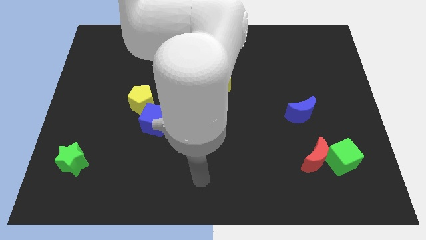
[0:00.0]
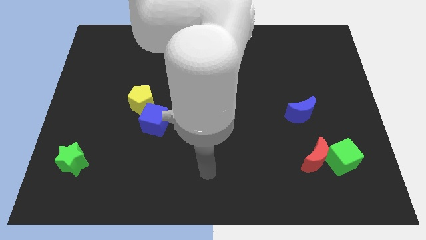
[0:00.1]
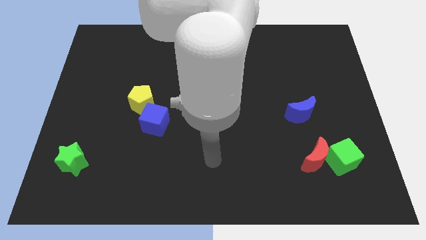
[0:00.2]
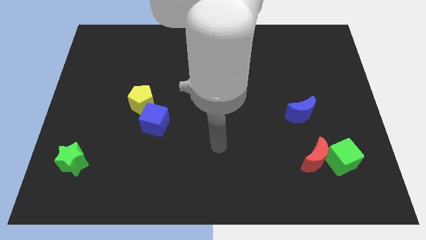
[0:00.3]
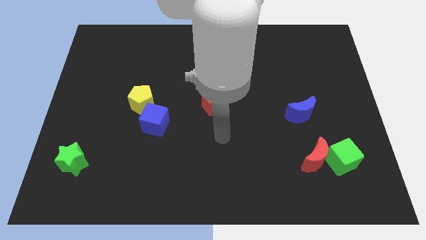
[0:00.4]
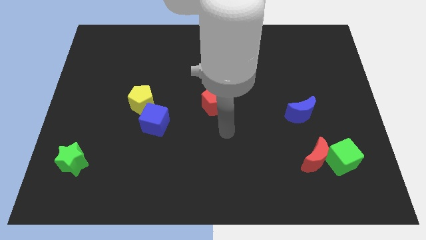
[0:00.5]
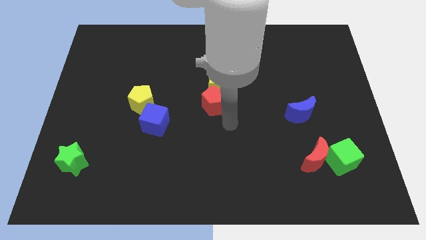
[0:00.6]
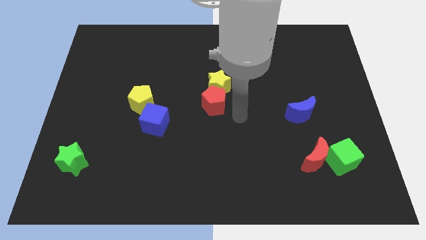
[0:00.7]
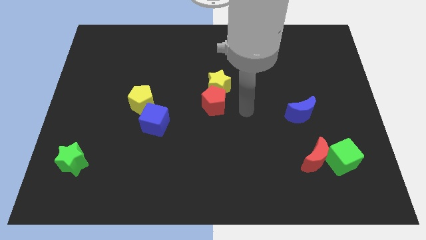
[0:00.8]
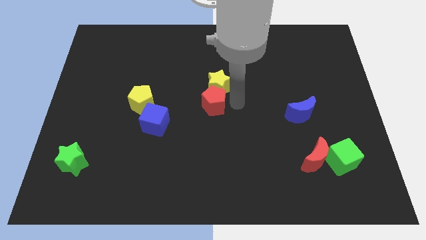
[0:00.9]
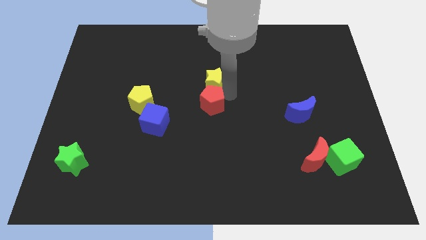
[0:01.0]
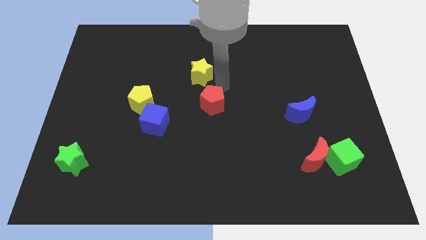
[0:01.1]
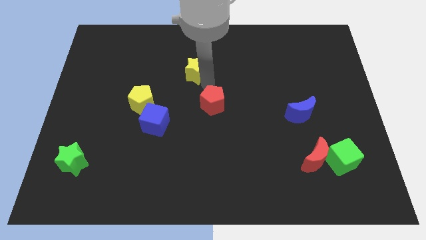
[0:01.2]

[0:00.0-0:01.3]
move the red pentagon away from the yellow star

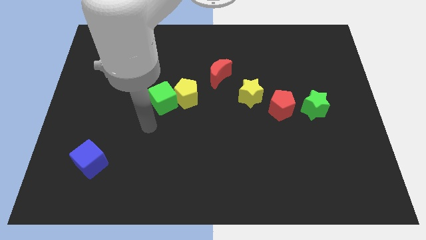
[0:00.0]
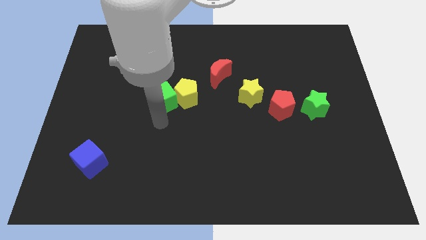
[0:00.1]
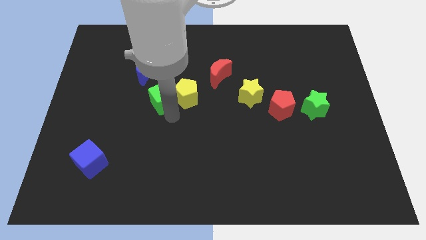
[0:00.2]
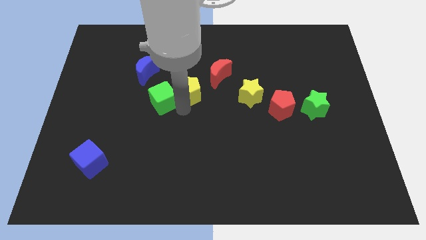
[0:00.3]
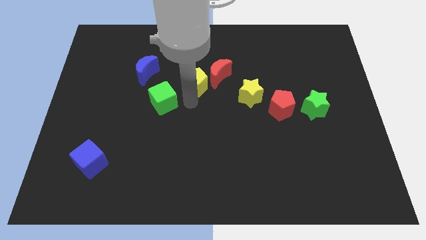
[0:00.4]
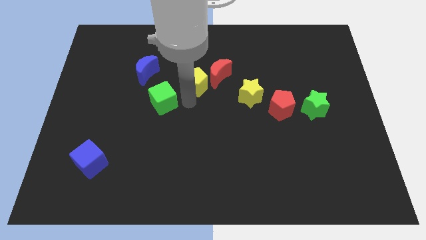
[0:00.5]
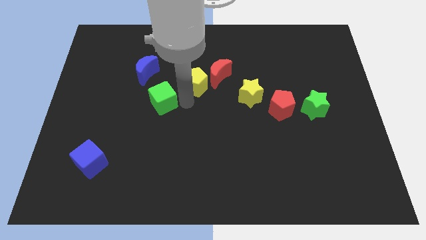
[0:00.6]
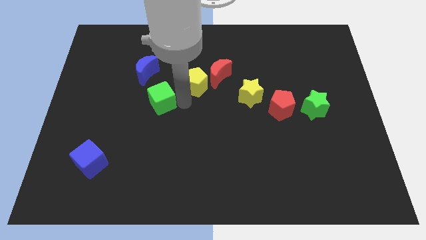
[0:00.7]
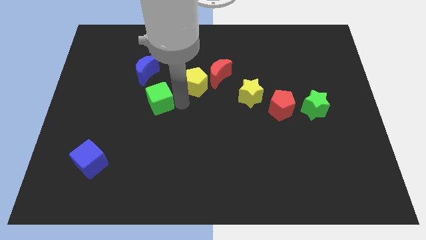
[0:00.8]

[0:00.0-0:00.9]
move the green cube away from the yellow pentagon

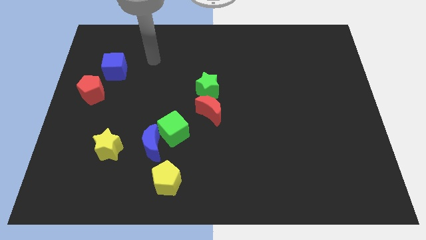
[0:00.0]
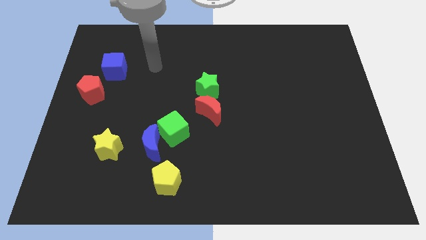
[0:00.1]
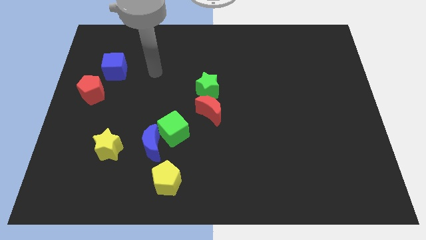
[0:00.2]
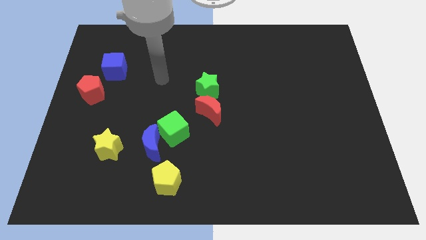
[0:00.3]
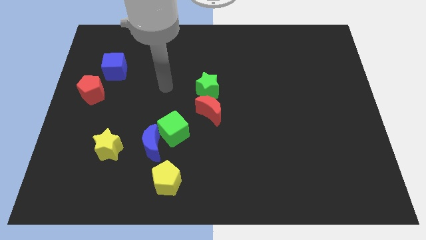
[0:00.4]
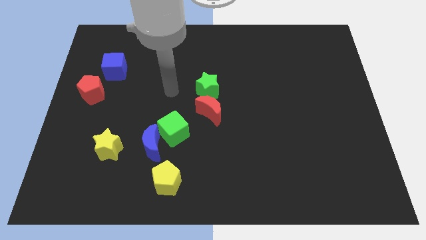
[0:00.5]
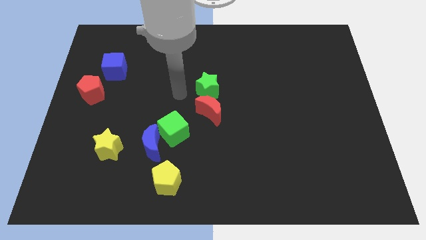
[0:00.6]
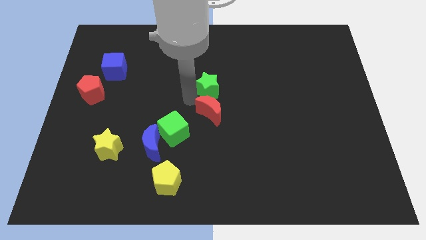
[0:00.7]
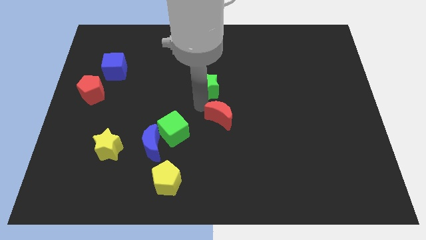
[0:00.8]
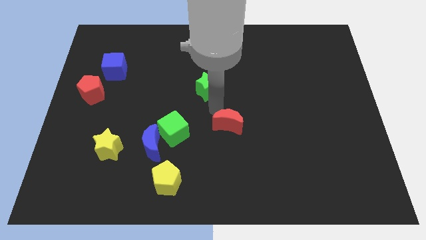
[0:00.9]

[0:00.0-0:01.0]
pull the green star apart from the red moon

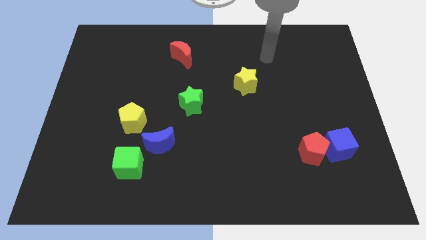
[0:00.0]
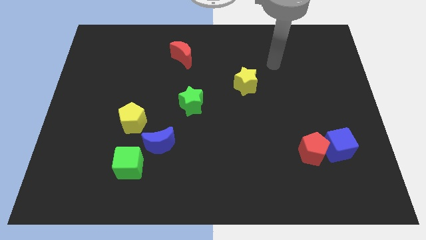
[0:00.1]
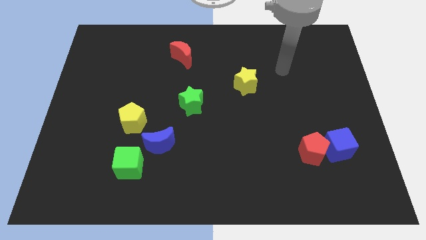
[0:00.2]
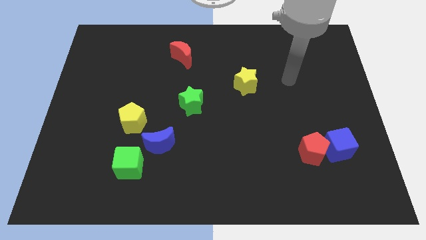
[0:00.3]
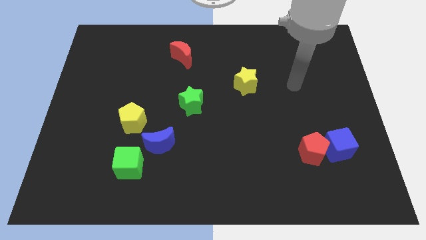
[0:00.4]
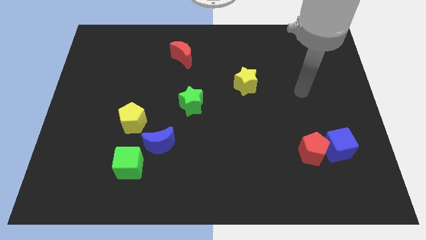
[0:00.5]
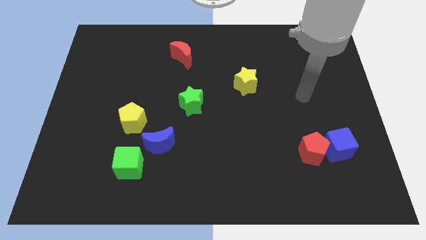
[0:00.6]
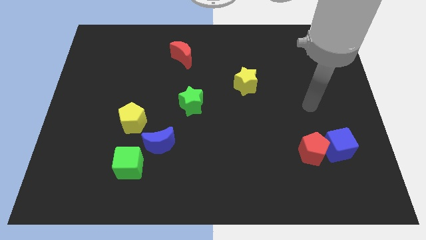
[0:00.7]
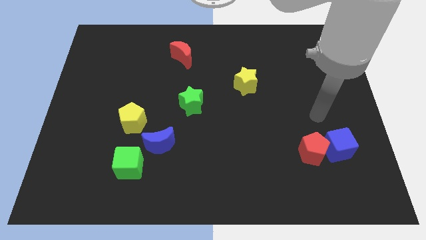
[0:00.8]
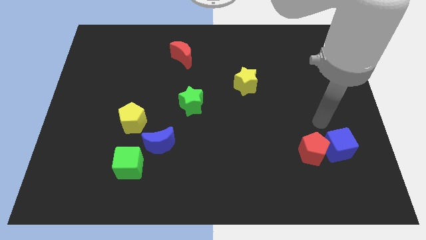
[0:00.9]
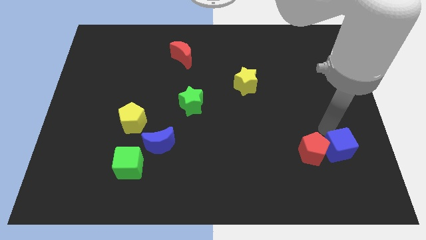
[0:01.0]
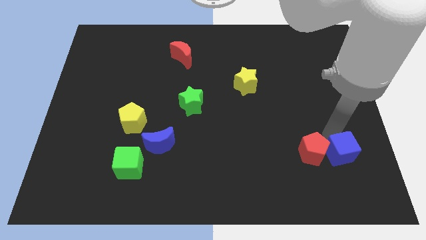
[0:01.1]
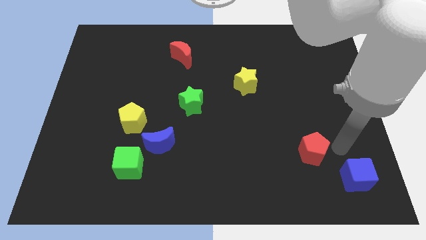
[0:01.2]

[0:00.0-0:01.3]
pull the red pentagon apart from the blue cube

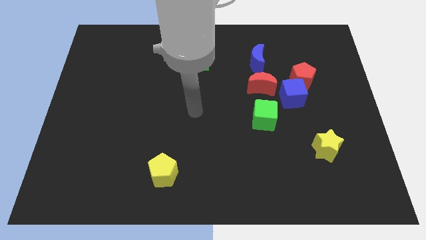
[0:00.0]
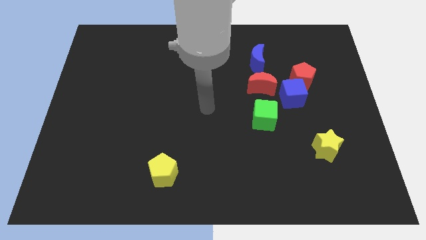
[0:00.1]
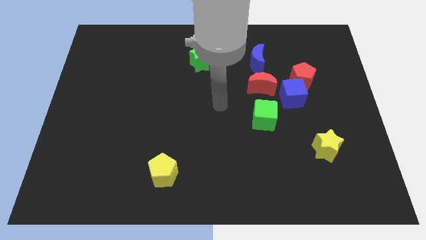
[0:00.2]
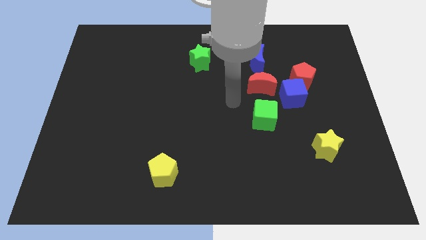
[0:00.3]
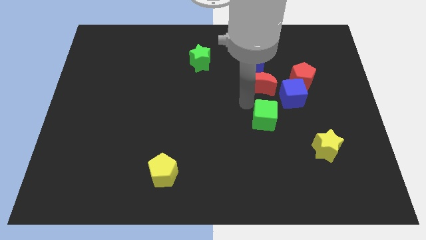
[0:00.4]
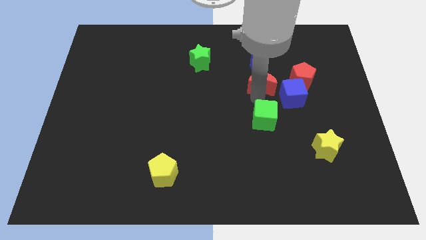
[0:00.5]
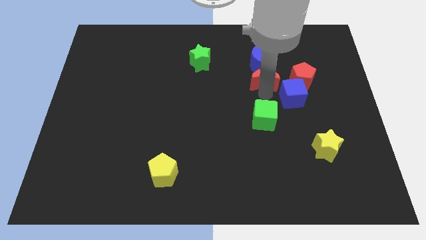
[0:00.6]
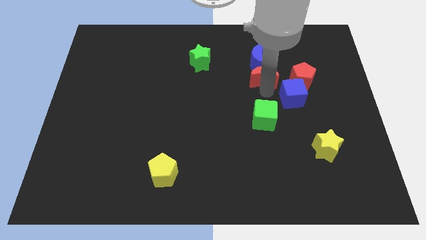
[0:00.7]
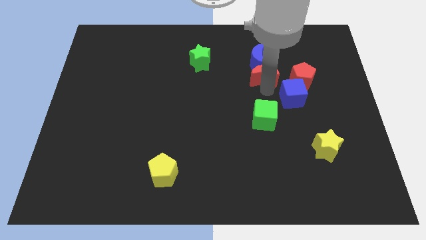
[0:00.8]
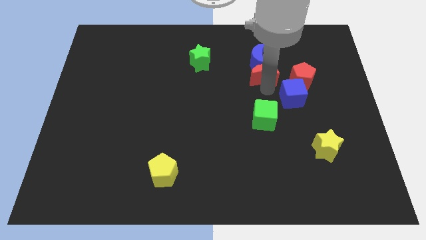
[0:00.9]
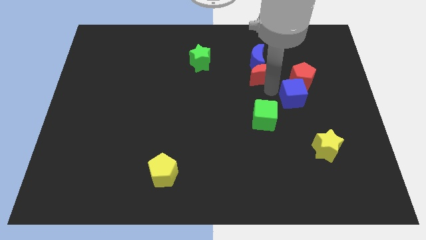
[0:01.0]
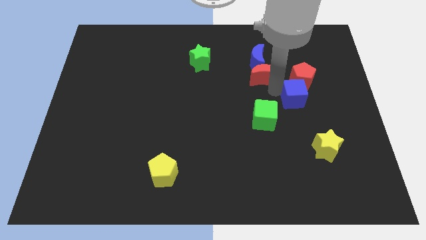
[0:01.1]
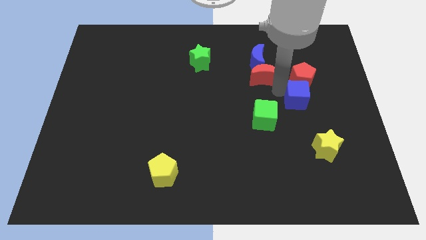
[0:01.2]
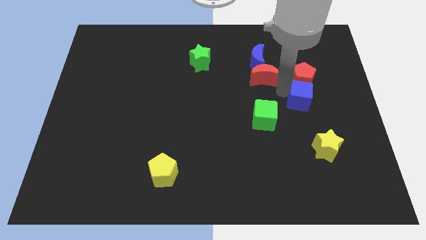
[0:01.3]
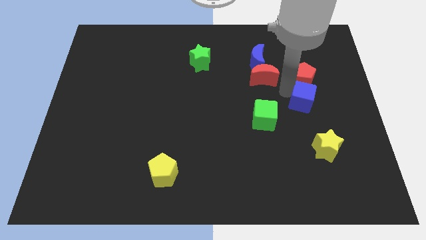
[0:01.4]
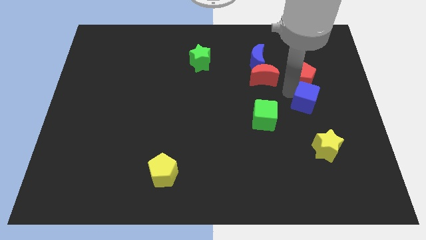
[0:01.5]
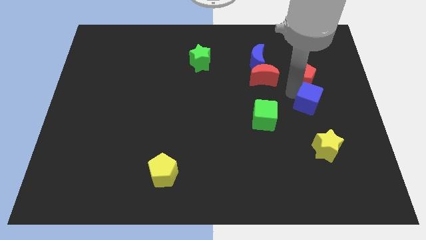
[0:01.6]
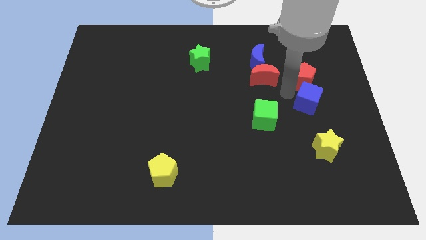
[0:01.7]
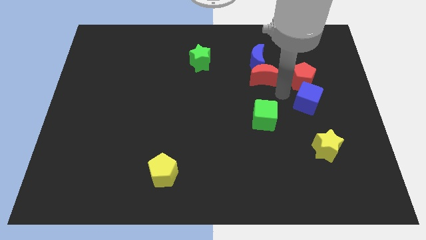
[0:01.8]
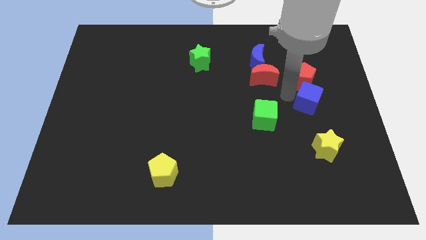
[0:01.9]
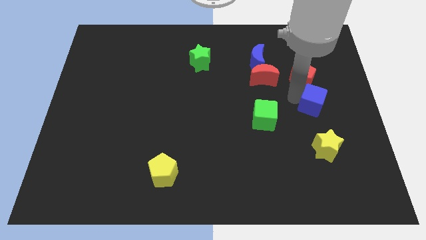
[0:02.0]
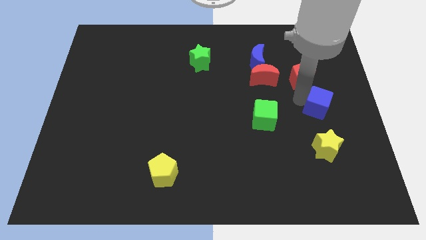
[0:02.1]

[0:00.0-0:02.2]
separate the blue cube from the red pentagon, red moon, and green cube

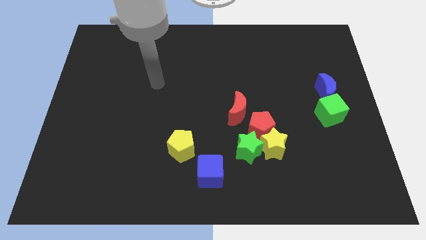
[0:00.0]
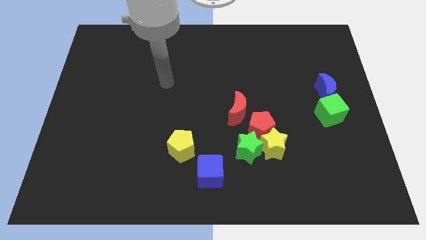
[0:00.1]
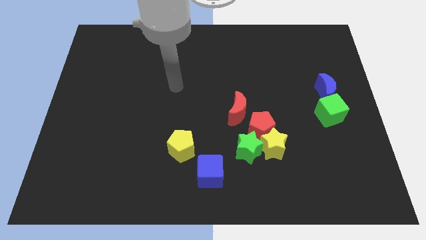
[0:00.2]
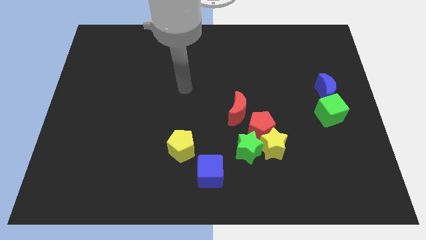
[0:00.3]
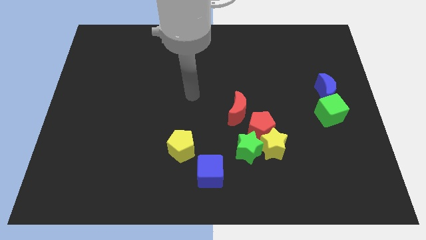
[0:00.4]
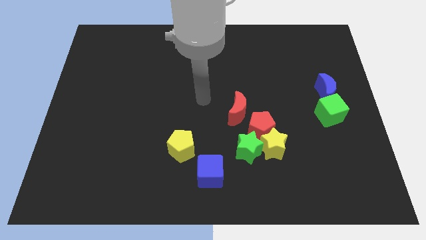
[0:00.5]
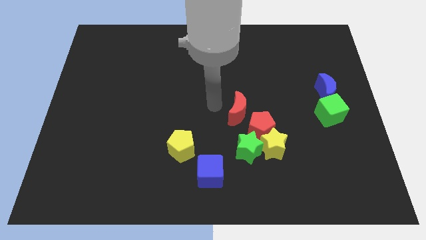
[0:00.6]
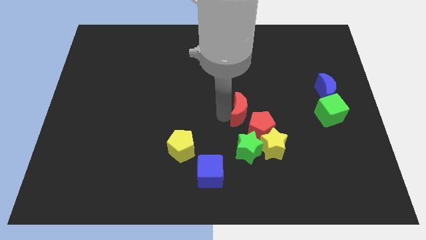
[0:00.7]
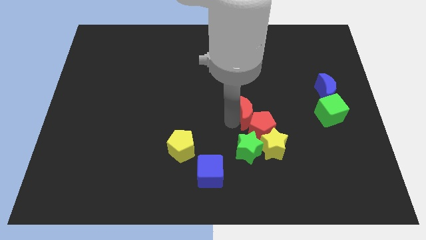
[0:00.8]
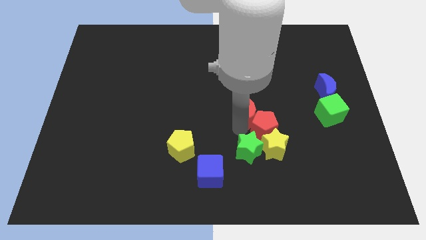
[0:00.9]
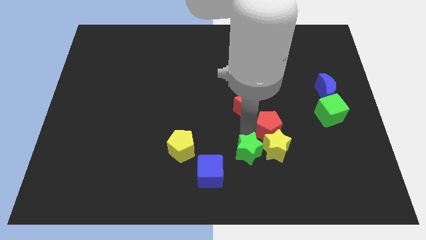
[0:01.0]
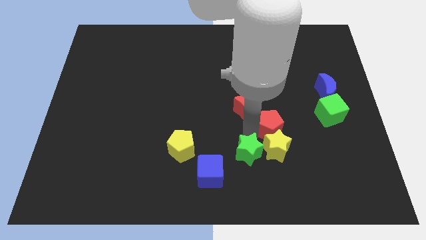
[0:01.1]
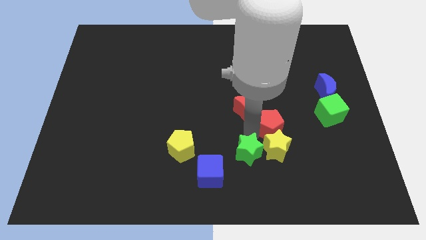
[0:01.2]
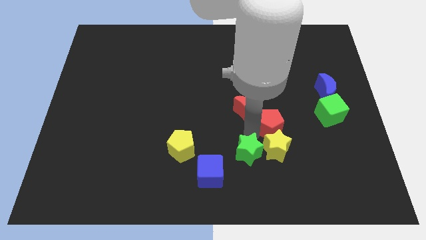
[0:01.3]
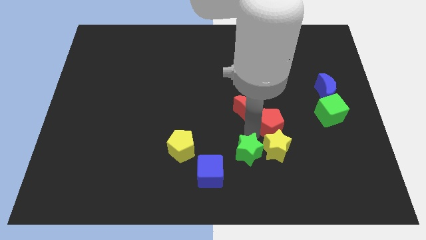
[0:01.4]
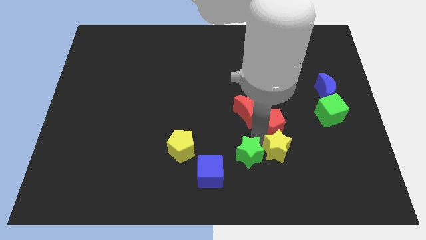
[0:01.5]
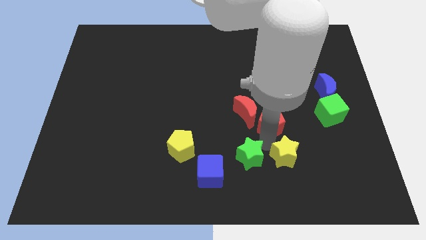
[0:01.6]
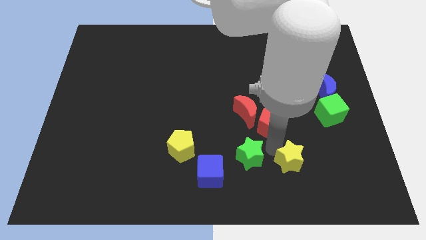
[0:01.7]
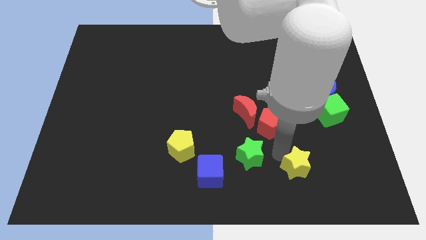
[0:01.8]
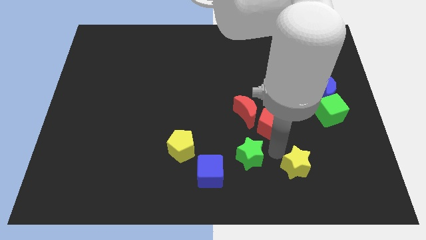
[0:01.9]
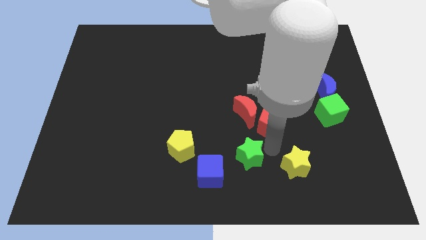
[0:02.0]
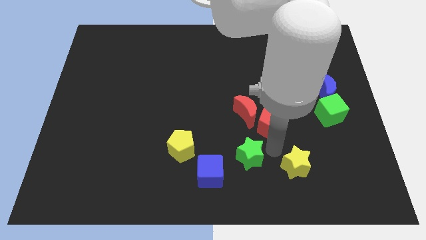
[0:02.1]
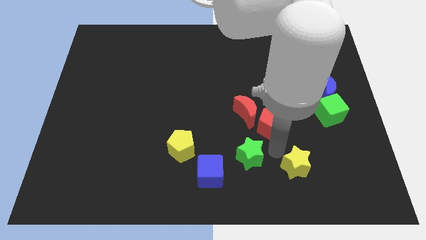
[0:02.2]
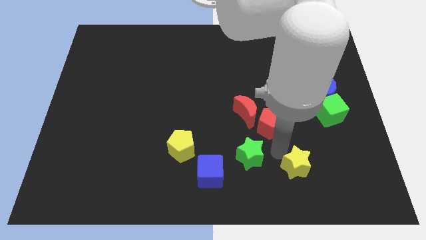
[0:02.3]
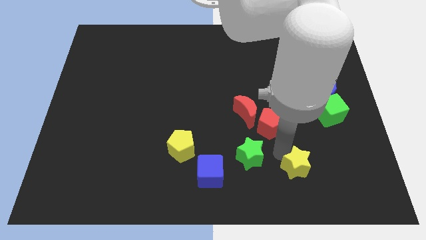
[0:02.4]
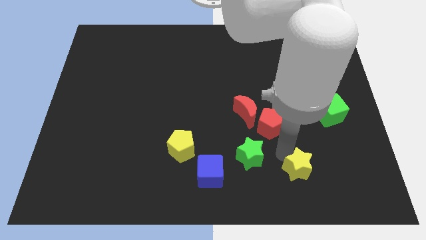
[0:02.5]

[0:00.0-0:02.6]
separate the yellow star from the green star and red pentagon
